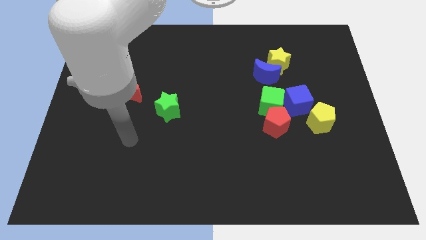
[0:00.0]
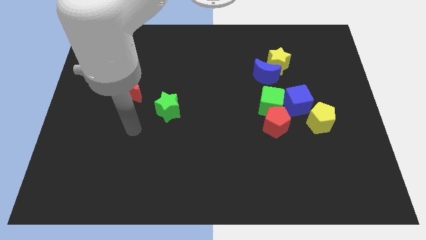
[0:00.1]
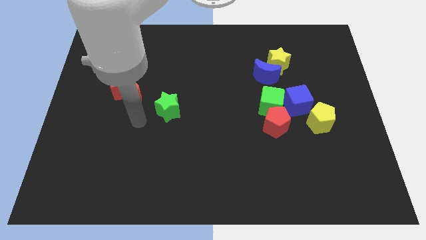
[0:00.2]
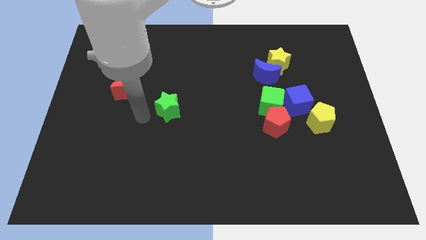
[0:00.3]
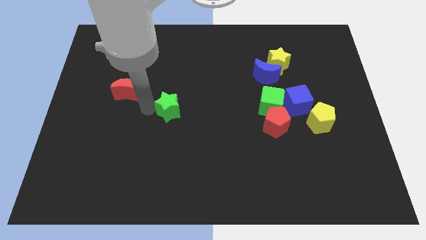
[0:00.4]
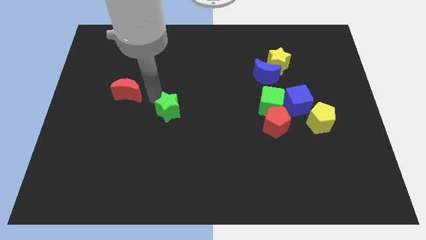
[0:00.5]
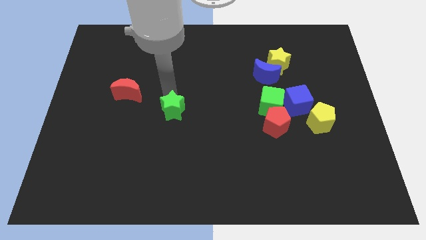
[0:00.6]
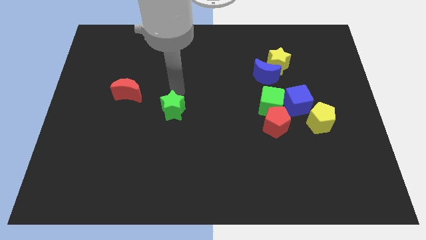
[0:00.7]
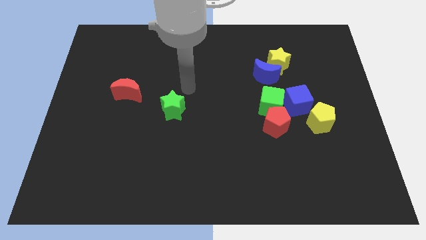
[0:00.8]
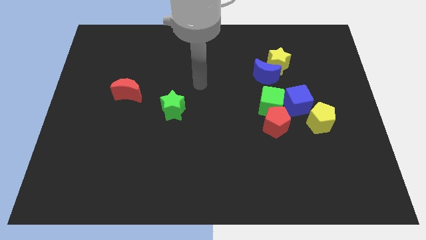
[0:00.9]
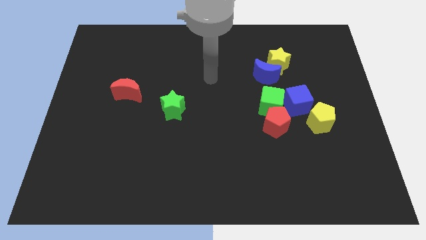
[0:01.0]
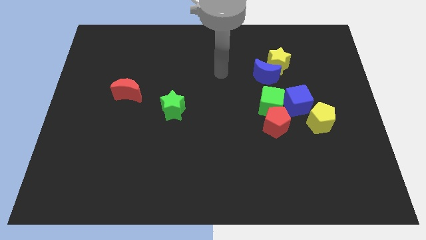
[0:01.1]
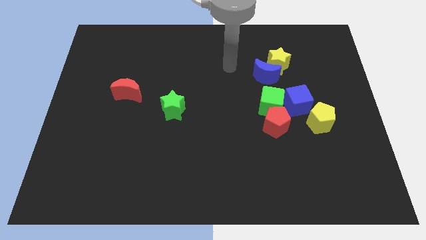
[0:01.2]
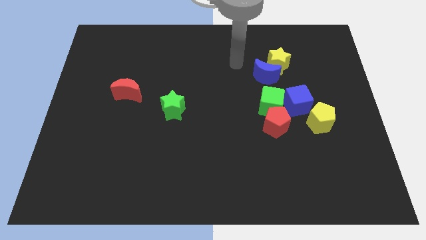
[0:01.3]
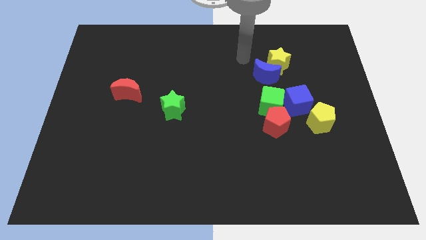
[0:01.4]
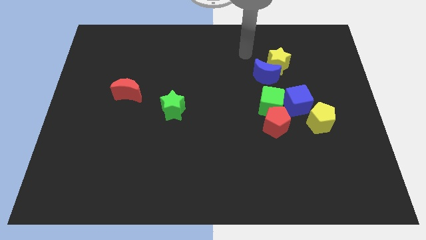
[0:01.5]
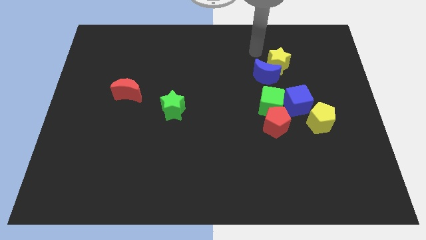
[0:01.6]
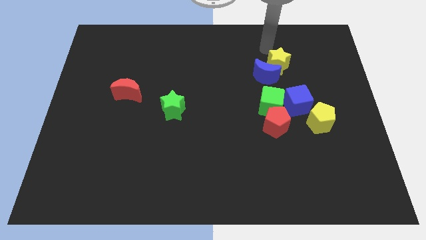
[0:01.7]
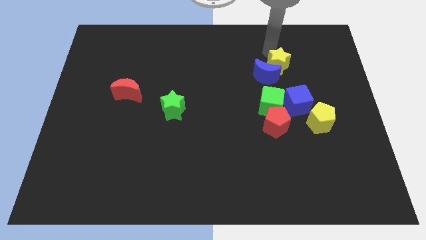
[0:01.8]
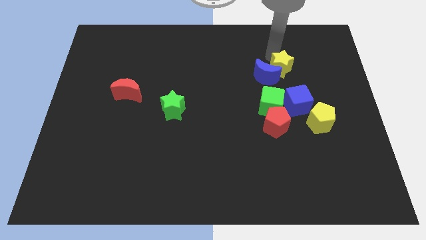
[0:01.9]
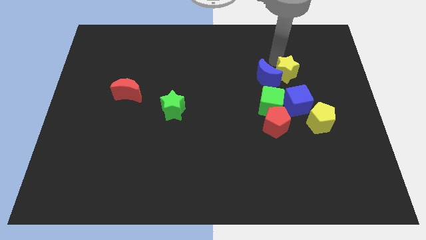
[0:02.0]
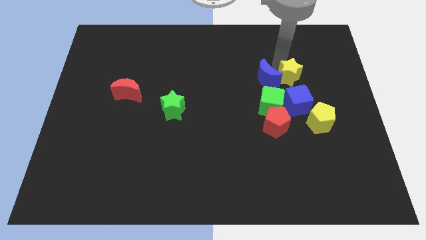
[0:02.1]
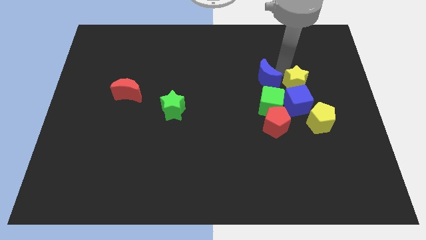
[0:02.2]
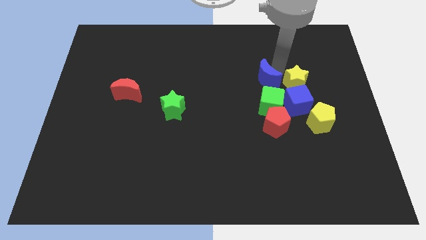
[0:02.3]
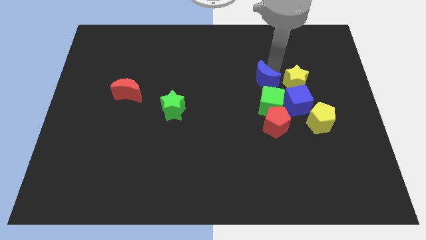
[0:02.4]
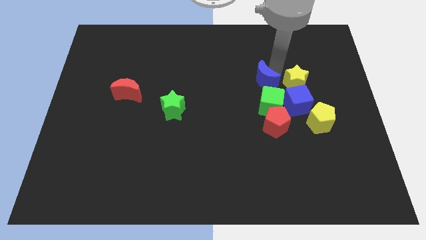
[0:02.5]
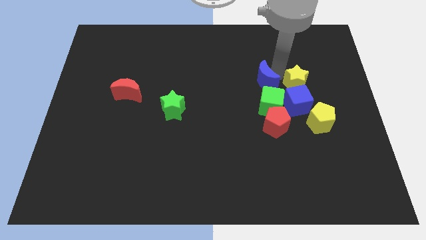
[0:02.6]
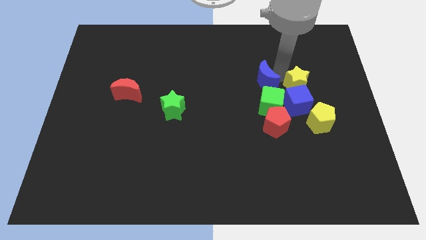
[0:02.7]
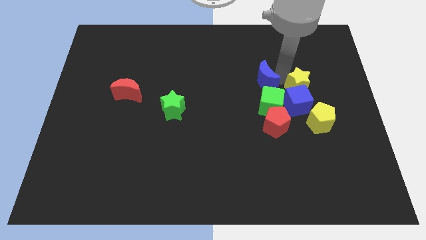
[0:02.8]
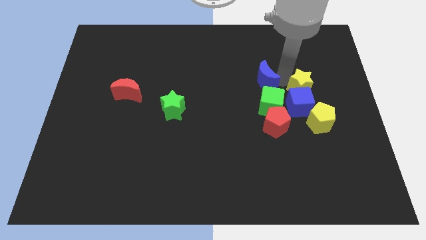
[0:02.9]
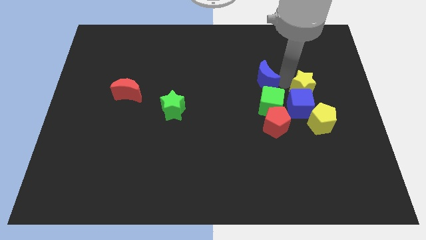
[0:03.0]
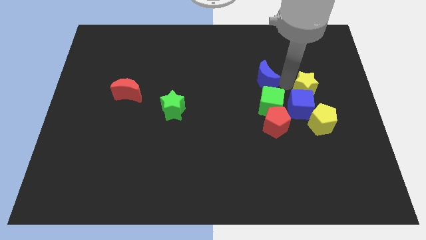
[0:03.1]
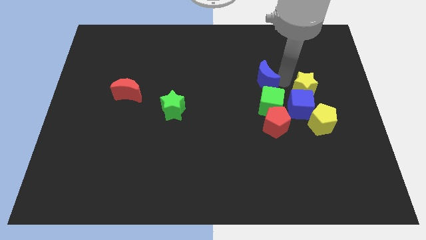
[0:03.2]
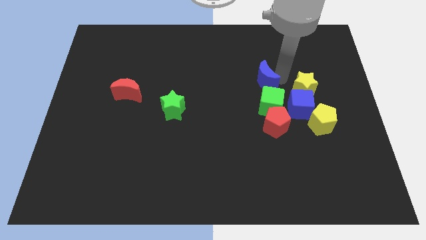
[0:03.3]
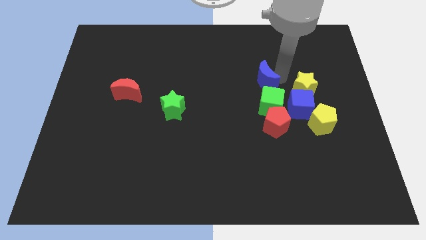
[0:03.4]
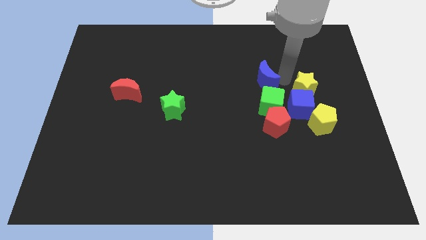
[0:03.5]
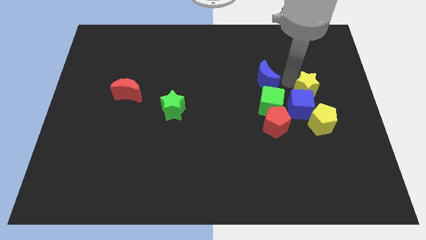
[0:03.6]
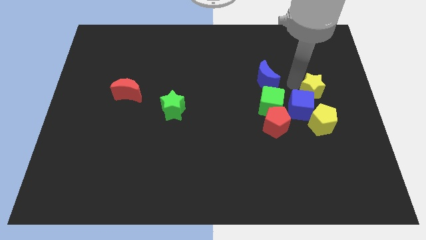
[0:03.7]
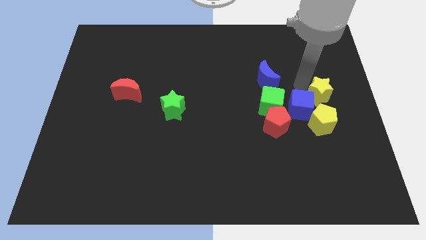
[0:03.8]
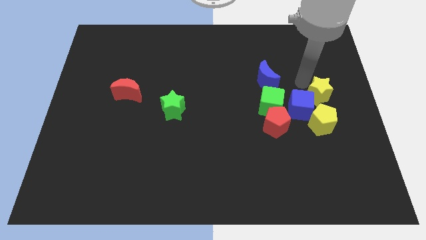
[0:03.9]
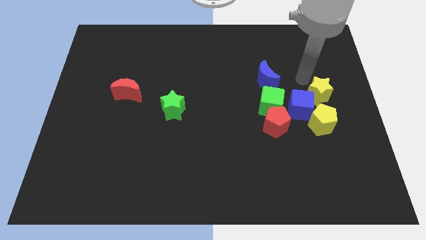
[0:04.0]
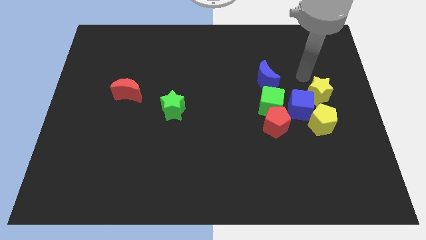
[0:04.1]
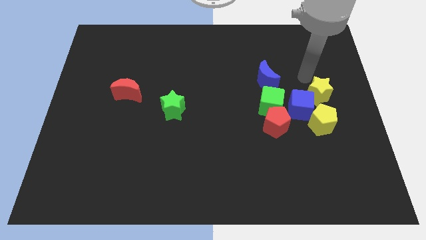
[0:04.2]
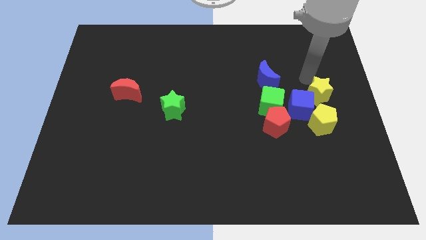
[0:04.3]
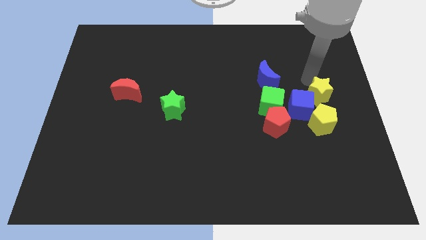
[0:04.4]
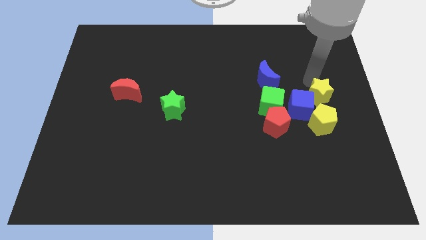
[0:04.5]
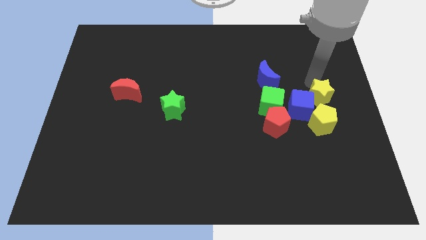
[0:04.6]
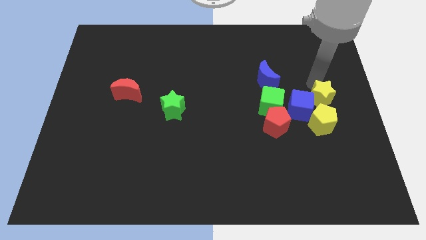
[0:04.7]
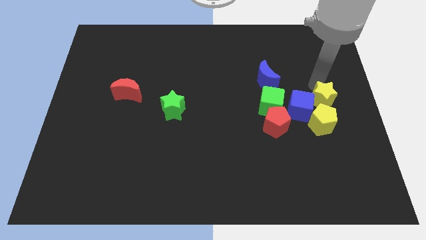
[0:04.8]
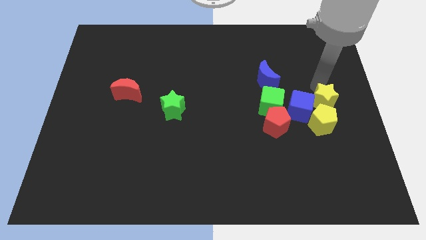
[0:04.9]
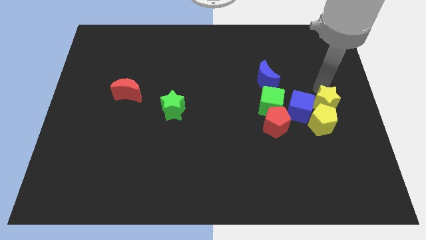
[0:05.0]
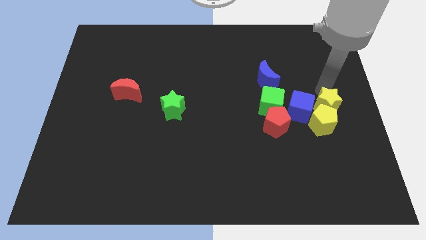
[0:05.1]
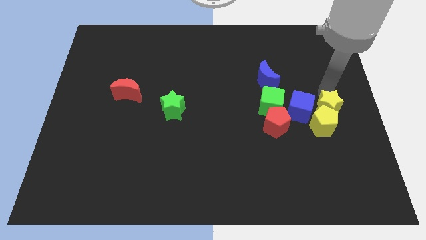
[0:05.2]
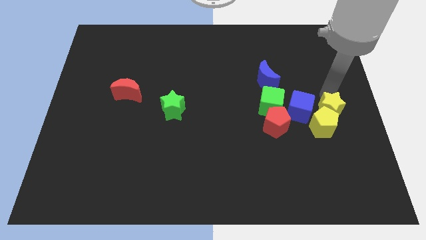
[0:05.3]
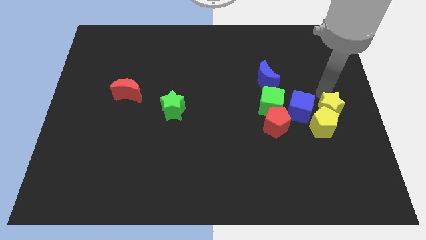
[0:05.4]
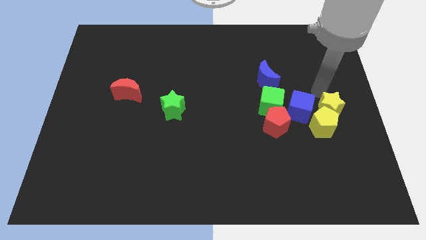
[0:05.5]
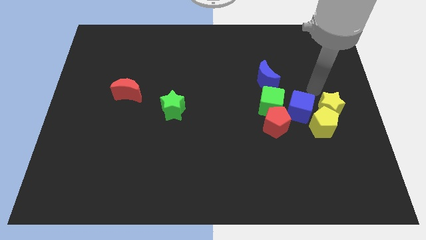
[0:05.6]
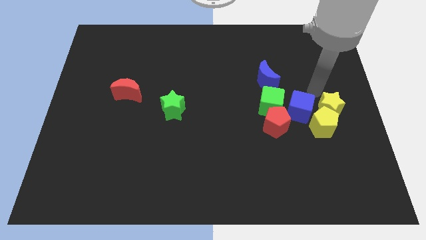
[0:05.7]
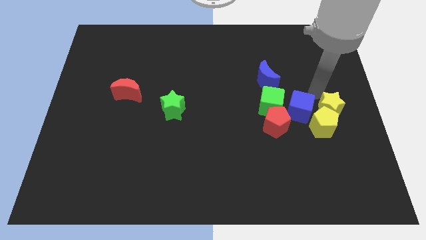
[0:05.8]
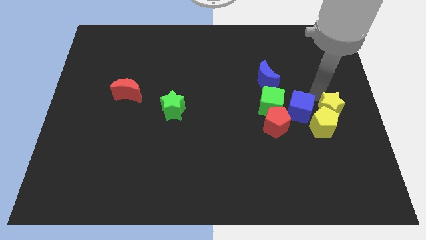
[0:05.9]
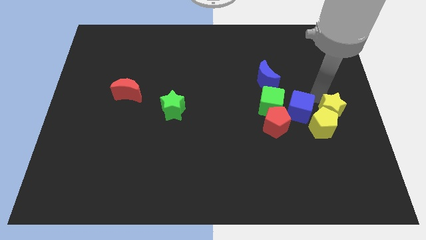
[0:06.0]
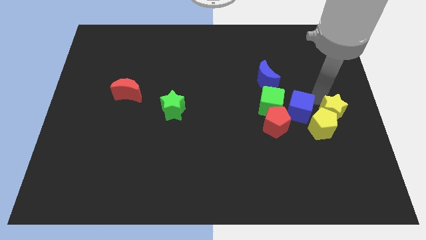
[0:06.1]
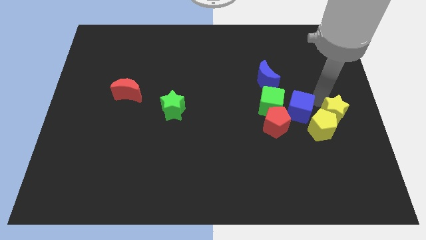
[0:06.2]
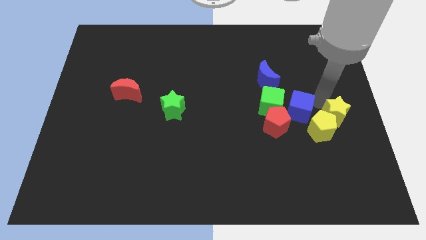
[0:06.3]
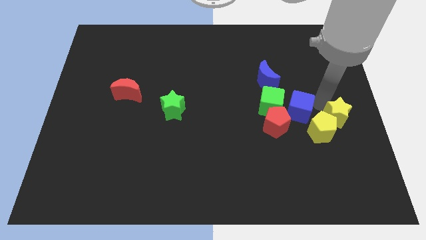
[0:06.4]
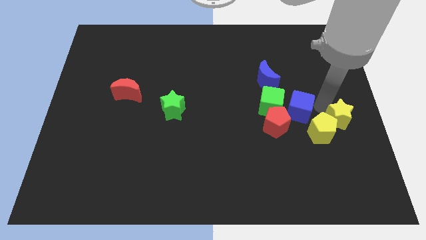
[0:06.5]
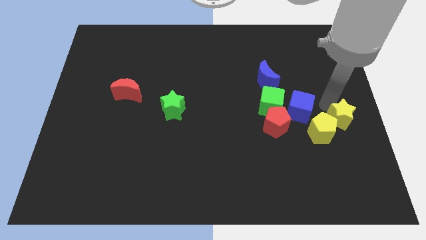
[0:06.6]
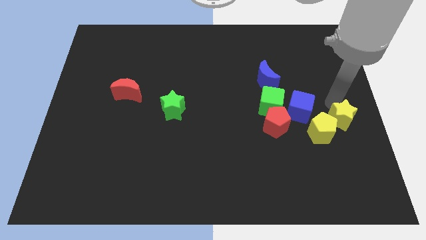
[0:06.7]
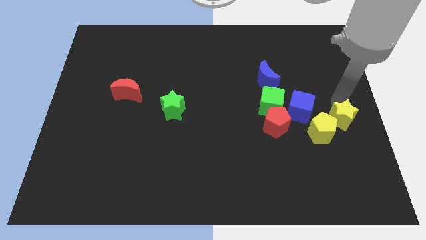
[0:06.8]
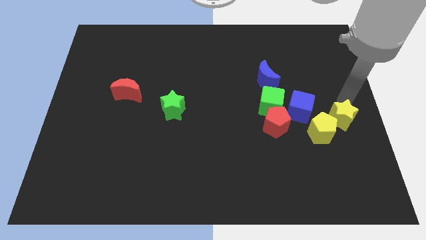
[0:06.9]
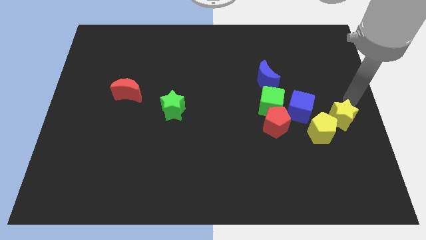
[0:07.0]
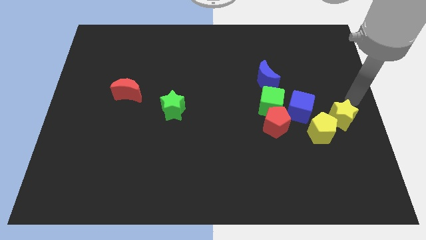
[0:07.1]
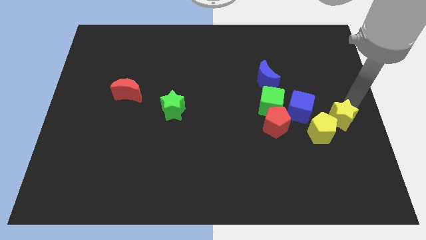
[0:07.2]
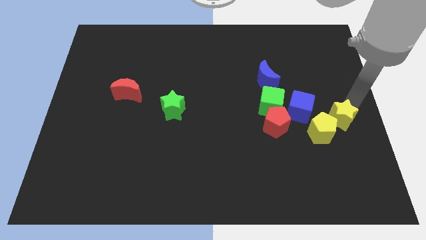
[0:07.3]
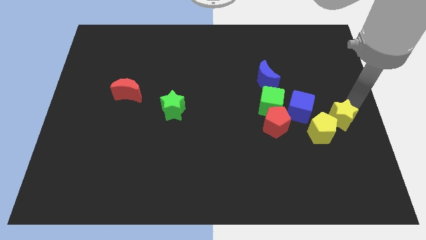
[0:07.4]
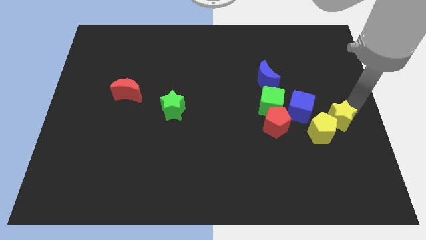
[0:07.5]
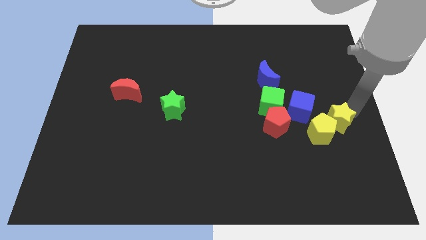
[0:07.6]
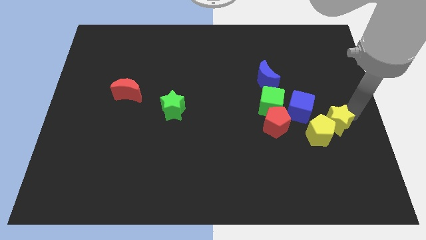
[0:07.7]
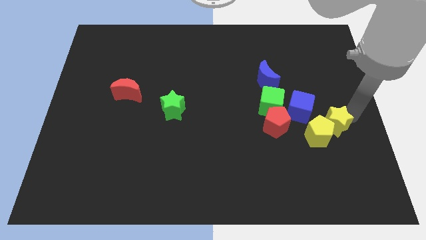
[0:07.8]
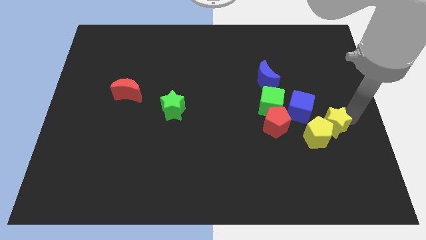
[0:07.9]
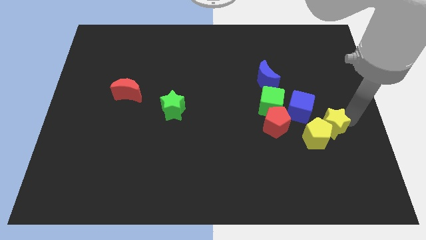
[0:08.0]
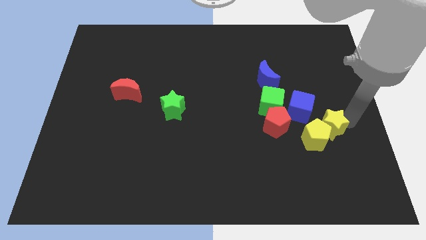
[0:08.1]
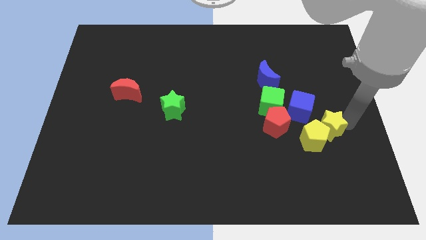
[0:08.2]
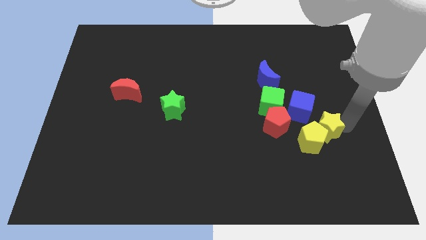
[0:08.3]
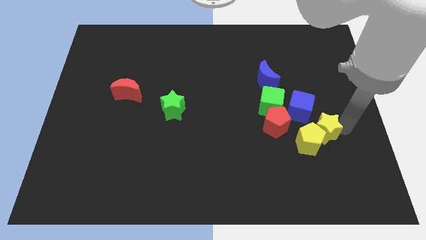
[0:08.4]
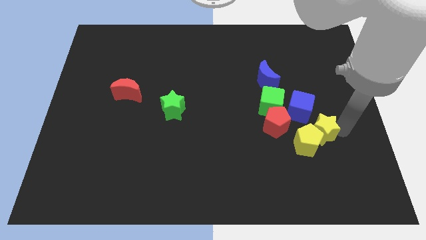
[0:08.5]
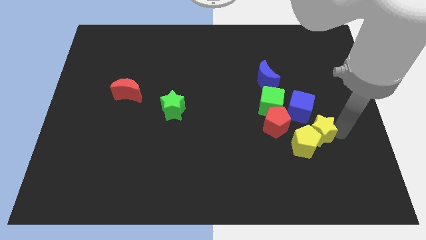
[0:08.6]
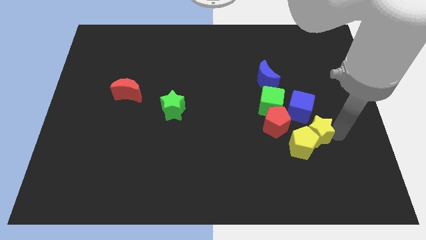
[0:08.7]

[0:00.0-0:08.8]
put the yellow star to the bottom right of the red pentagon
